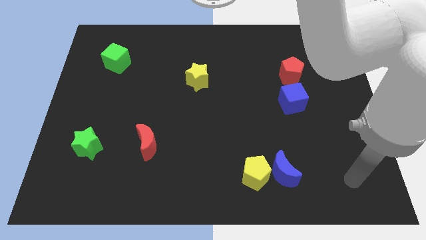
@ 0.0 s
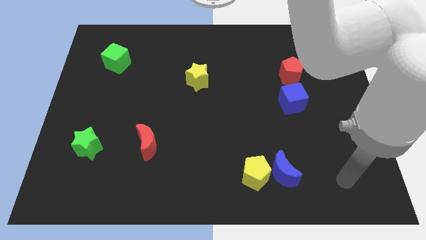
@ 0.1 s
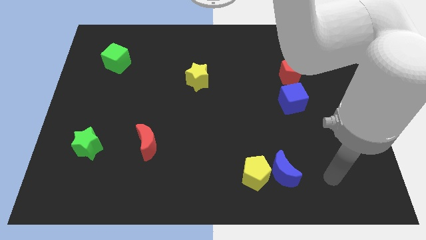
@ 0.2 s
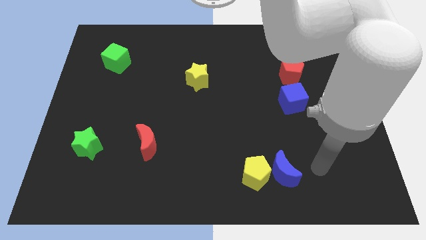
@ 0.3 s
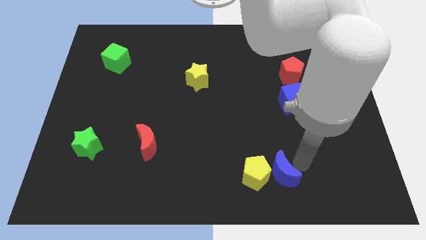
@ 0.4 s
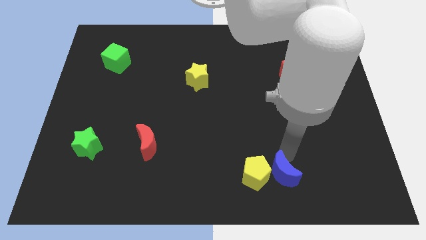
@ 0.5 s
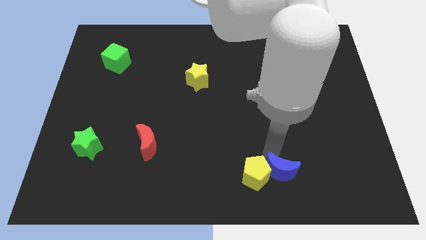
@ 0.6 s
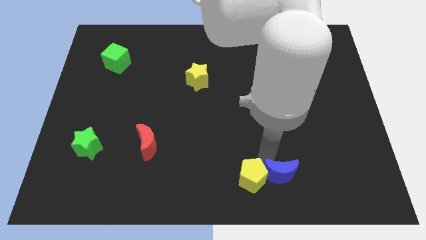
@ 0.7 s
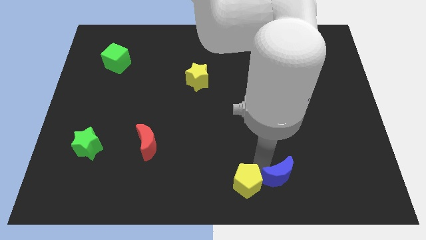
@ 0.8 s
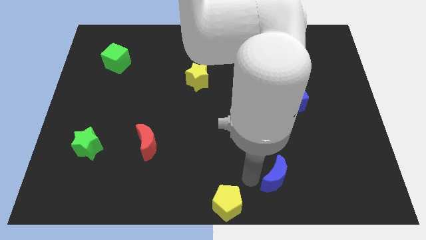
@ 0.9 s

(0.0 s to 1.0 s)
move the blue moon away from the yellow pentagon

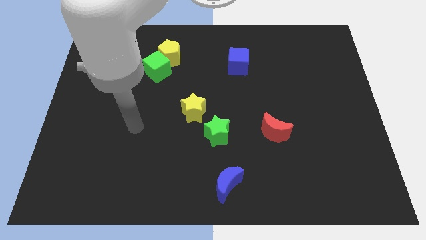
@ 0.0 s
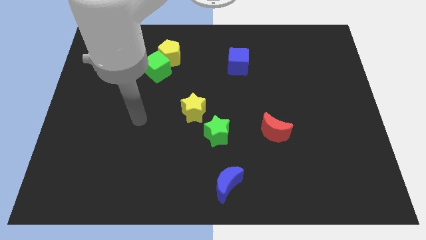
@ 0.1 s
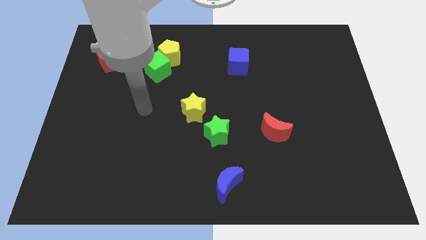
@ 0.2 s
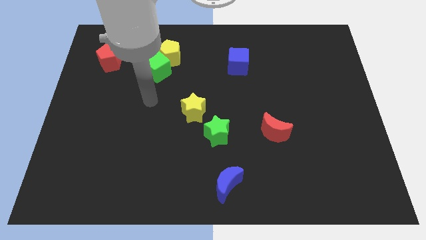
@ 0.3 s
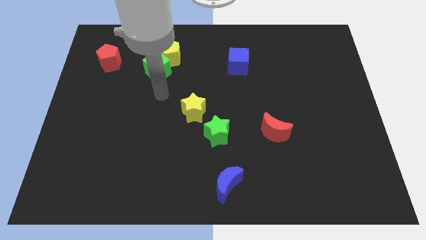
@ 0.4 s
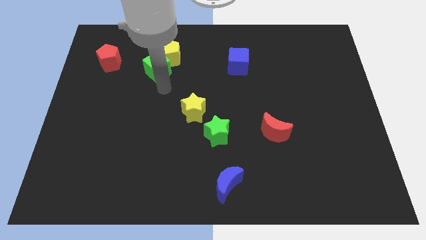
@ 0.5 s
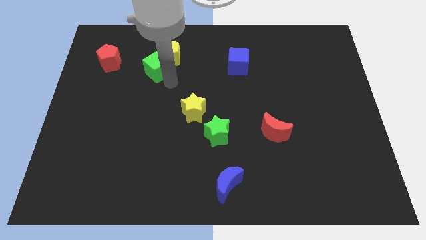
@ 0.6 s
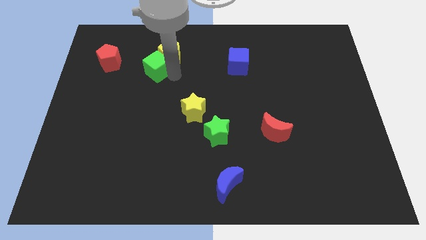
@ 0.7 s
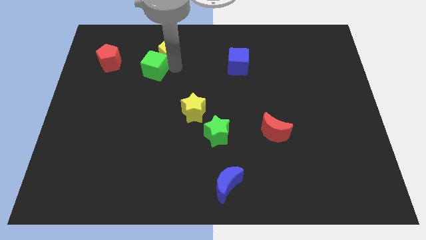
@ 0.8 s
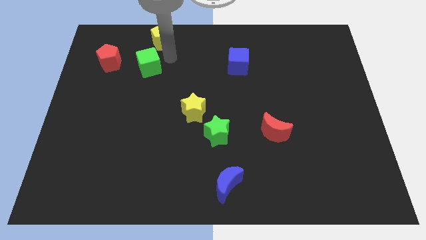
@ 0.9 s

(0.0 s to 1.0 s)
move the green cube away from the yellow pentagon

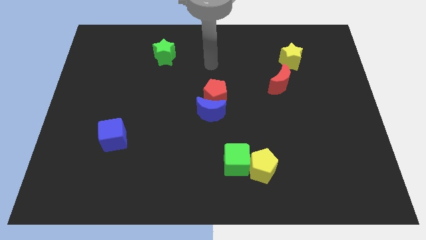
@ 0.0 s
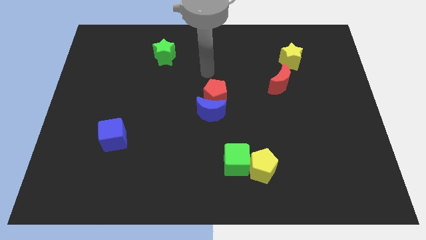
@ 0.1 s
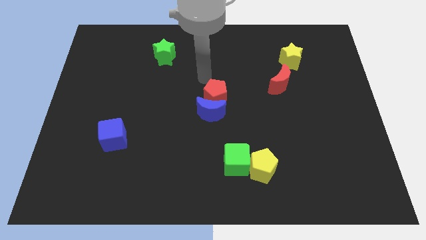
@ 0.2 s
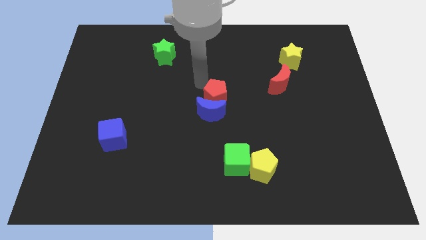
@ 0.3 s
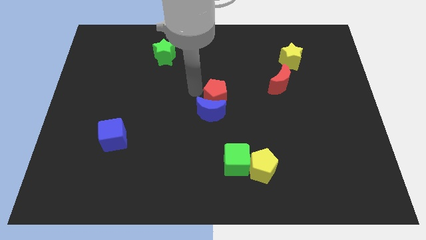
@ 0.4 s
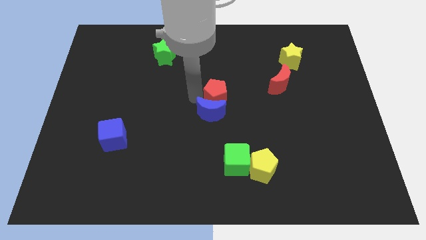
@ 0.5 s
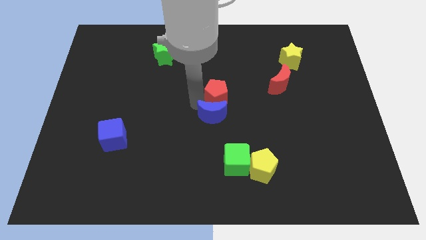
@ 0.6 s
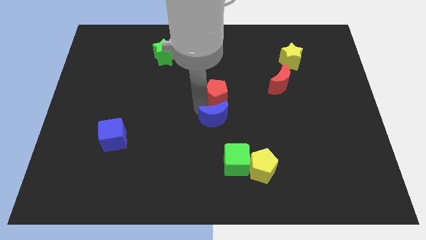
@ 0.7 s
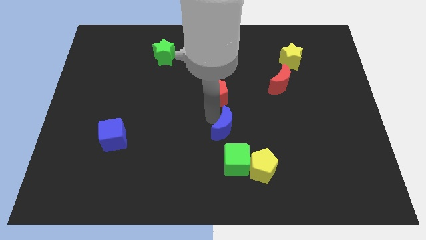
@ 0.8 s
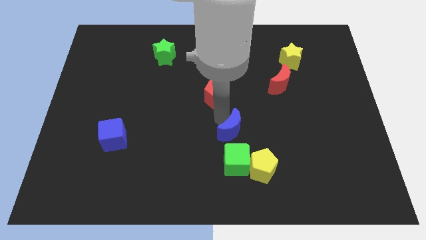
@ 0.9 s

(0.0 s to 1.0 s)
move the red pentagon away from the blue moon

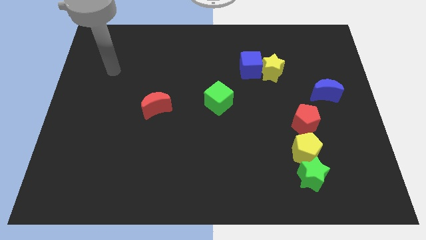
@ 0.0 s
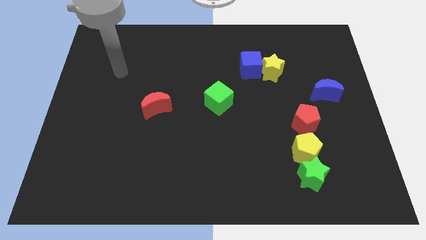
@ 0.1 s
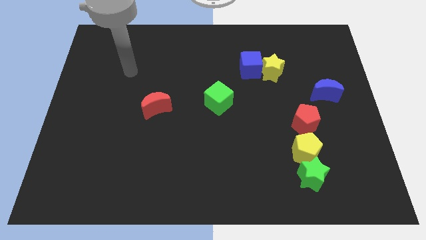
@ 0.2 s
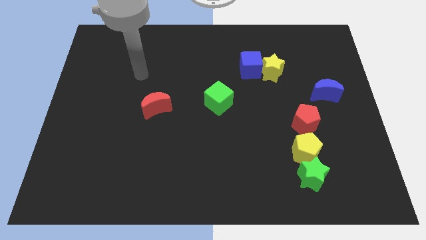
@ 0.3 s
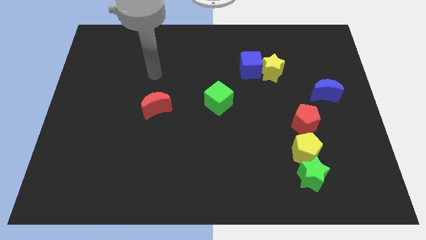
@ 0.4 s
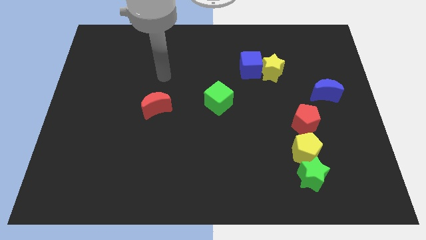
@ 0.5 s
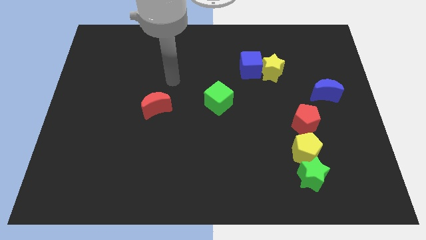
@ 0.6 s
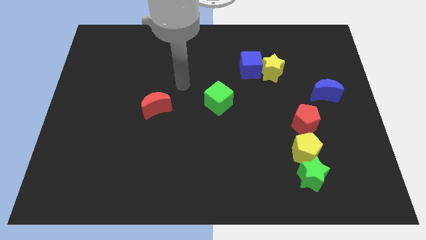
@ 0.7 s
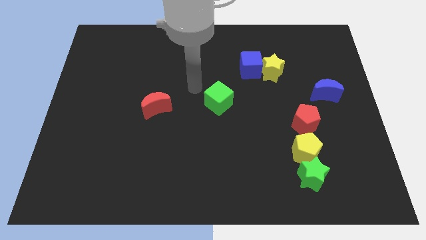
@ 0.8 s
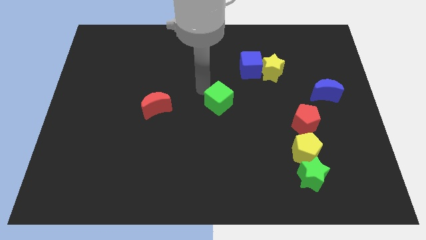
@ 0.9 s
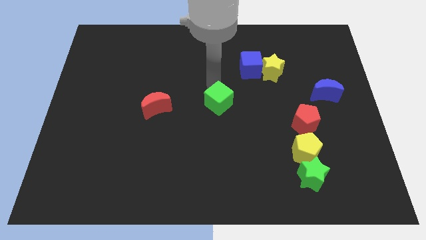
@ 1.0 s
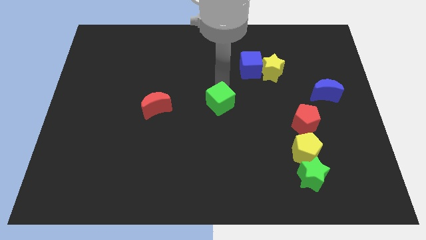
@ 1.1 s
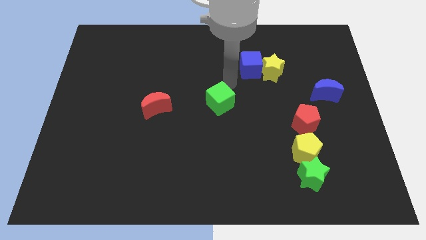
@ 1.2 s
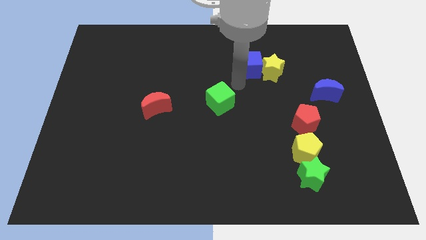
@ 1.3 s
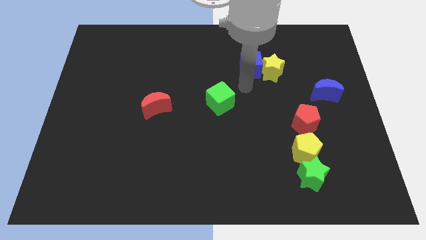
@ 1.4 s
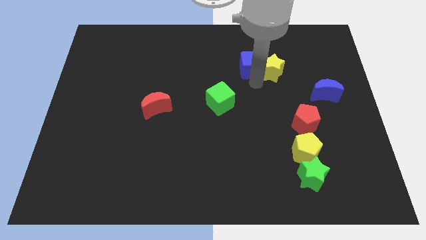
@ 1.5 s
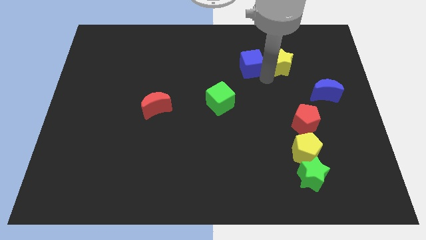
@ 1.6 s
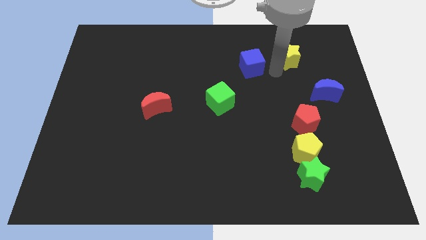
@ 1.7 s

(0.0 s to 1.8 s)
move the blue cube away from the yellow star

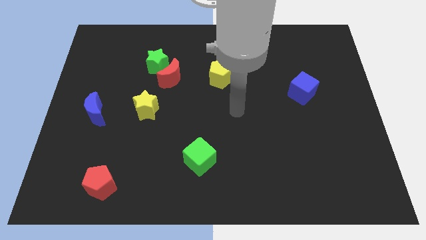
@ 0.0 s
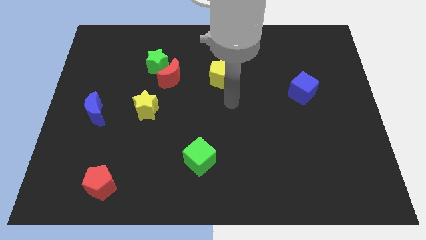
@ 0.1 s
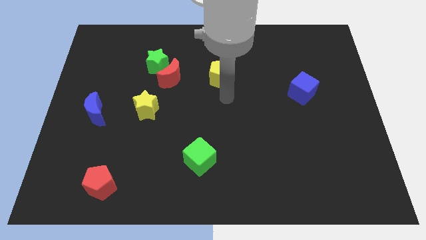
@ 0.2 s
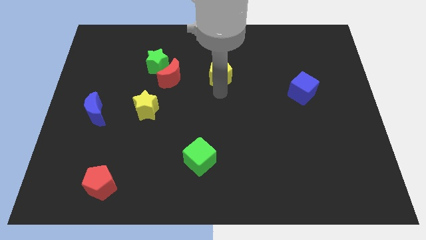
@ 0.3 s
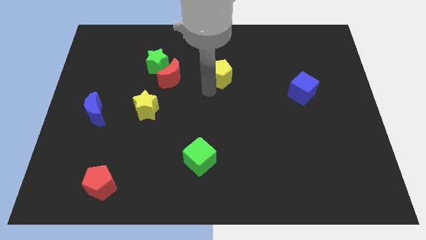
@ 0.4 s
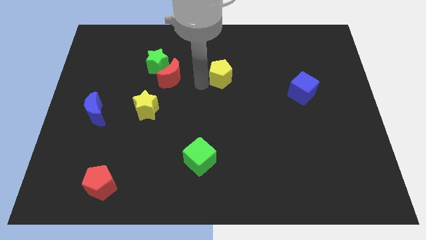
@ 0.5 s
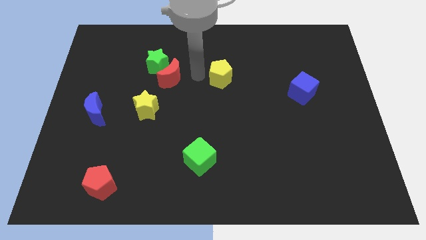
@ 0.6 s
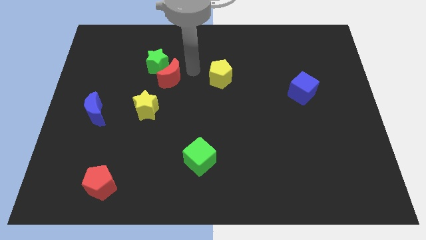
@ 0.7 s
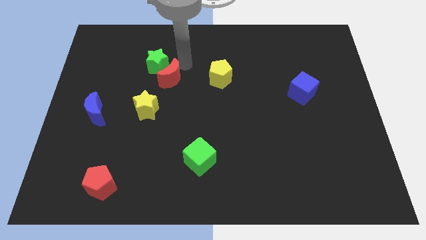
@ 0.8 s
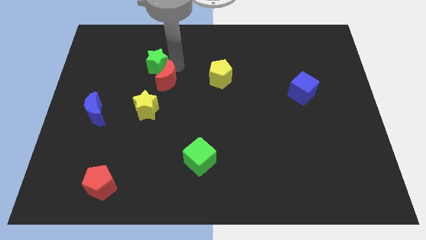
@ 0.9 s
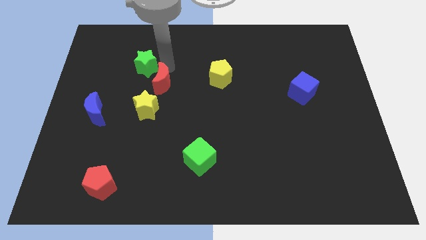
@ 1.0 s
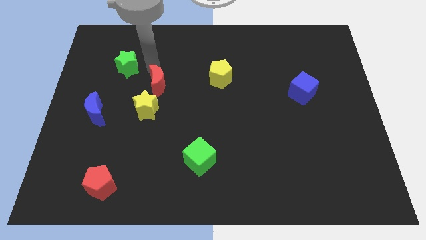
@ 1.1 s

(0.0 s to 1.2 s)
move the red moon away from the green star

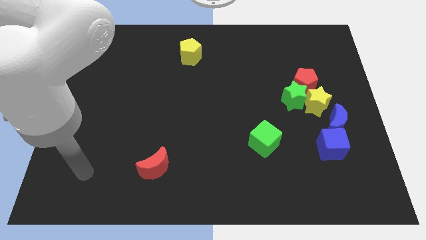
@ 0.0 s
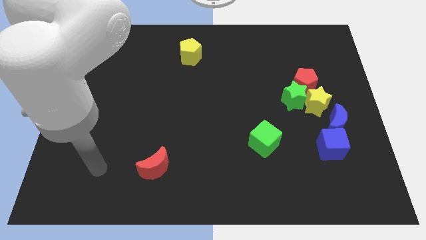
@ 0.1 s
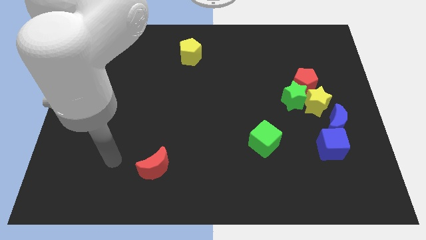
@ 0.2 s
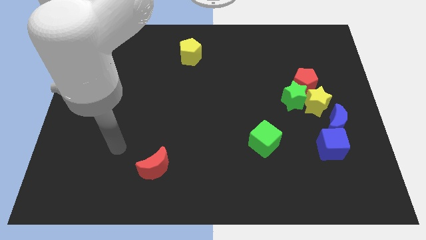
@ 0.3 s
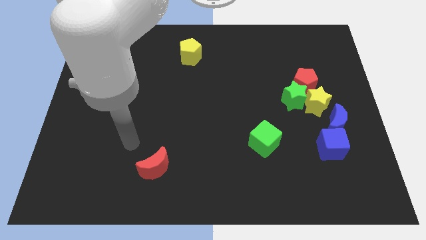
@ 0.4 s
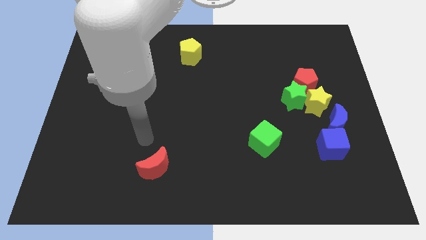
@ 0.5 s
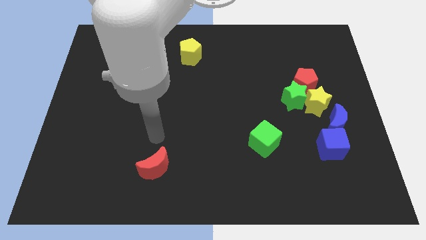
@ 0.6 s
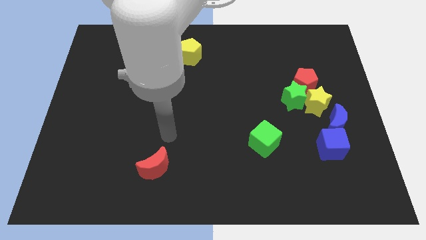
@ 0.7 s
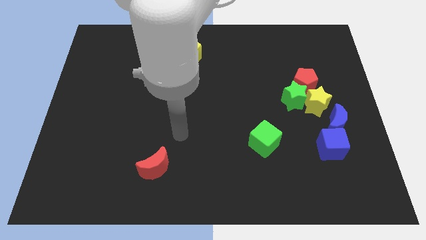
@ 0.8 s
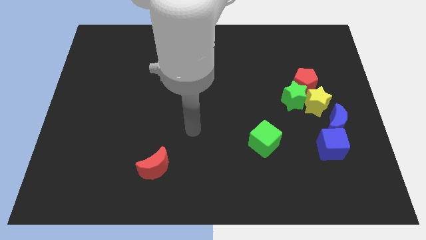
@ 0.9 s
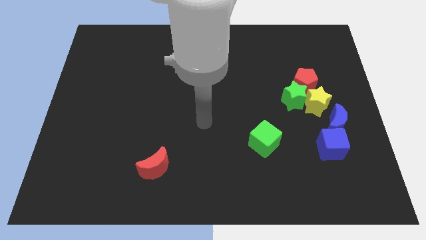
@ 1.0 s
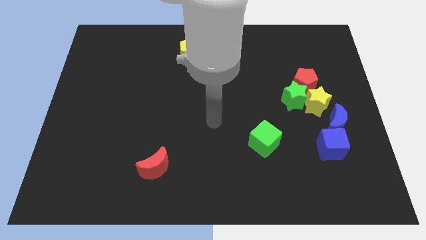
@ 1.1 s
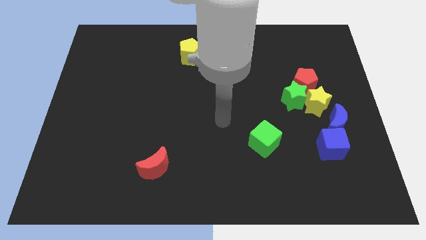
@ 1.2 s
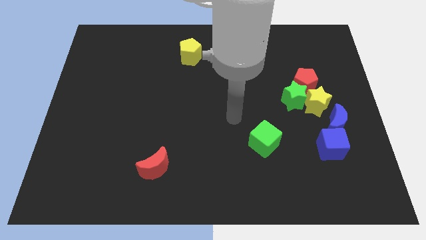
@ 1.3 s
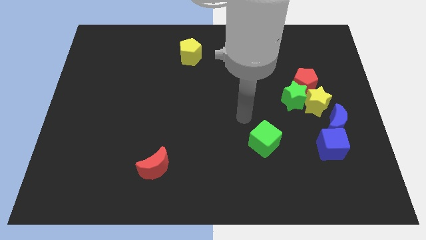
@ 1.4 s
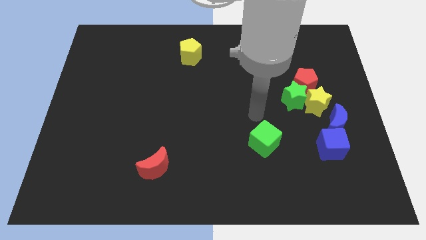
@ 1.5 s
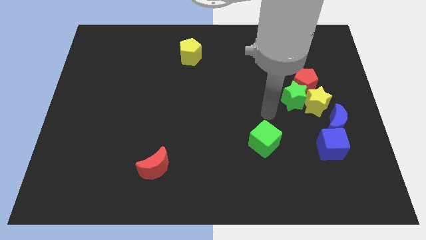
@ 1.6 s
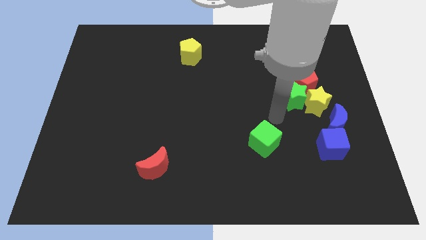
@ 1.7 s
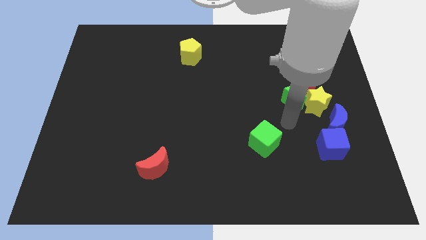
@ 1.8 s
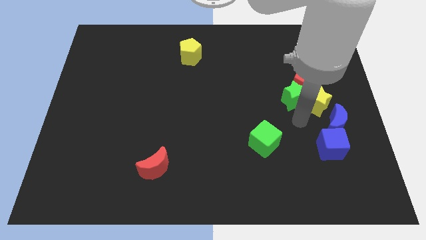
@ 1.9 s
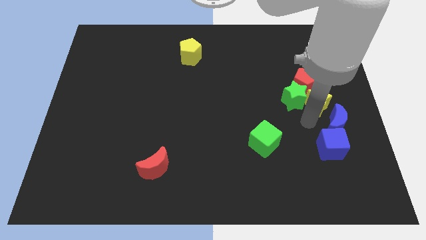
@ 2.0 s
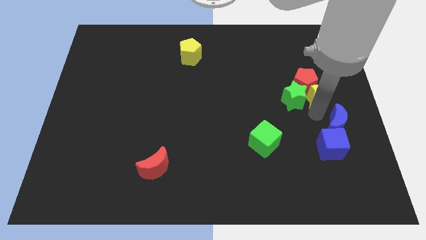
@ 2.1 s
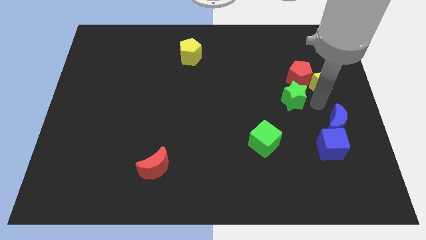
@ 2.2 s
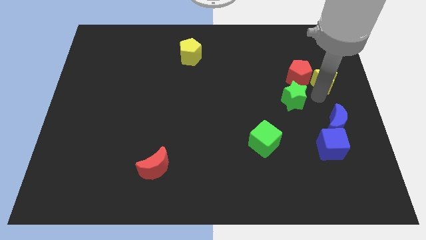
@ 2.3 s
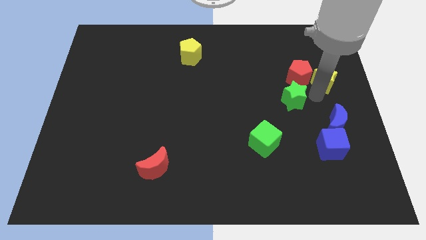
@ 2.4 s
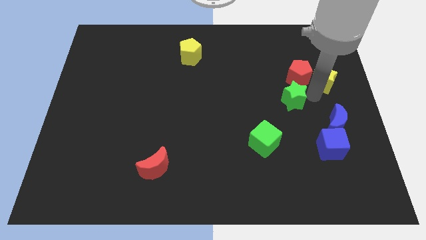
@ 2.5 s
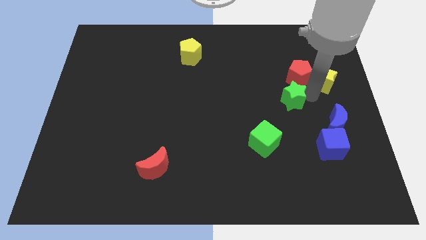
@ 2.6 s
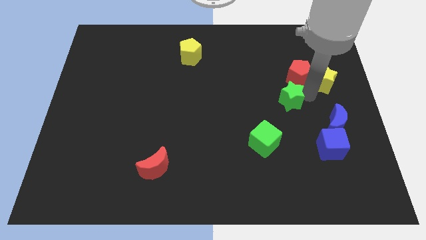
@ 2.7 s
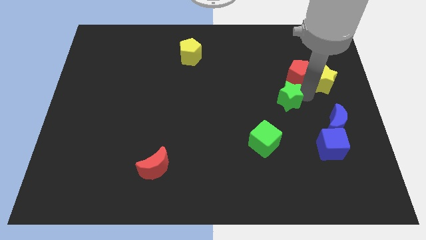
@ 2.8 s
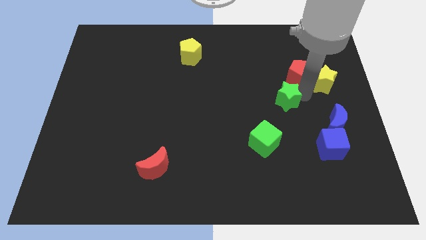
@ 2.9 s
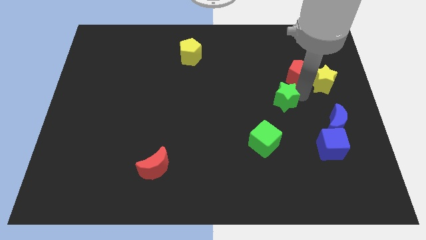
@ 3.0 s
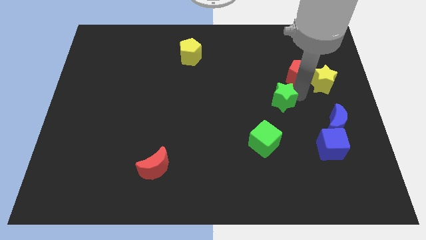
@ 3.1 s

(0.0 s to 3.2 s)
pull the green star apart from the yellow star and red pentagon

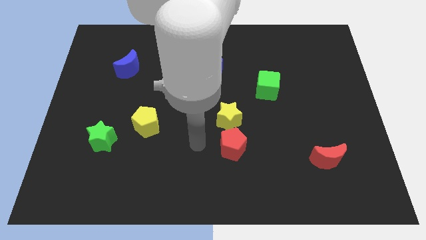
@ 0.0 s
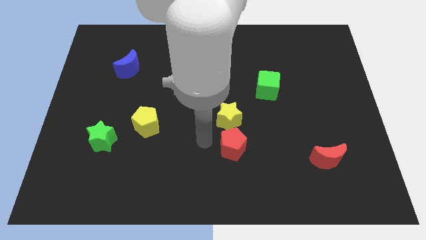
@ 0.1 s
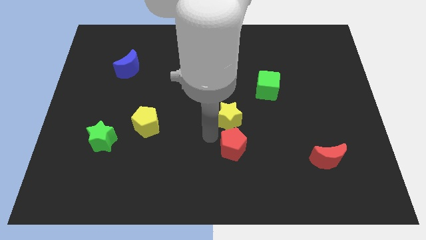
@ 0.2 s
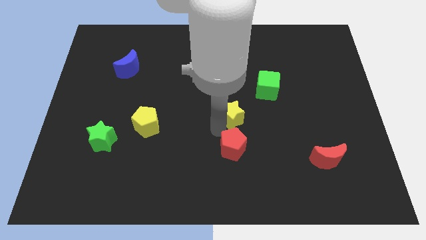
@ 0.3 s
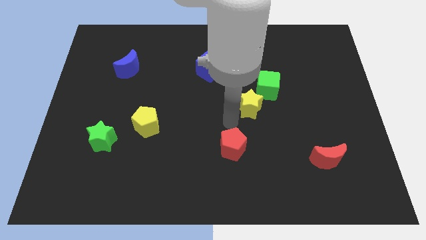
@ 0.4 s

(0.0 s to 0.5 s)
move the red pentagon away from the yellow star
